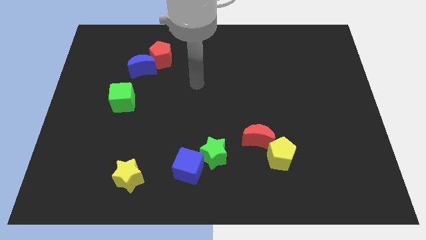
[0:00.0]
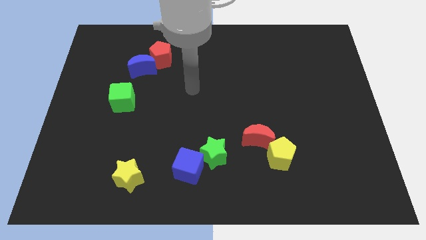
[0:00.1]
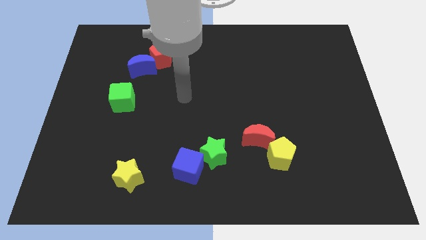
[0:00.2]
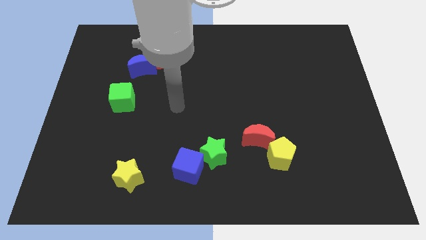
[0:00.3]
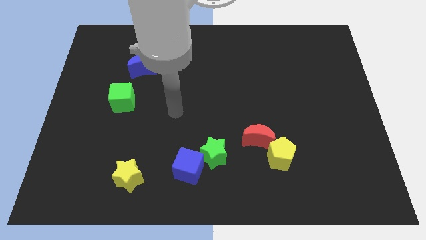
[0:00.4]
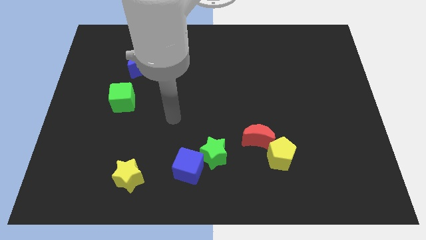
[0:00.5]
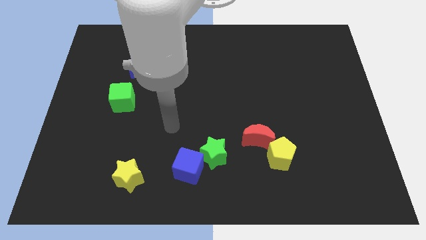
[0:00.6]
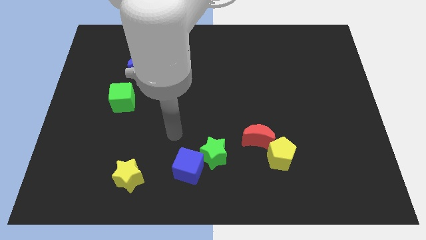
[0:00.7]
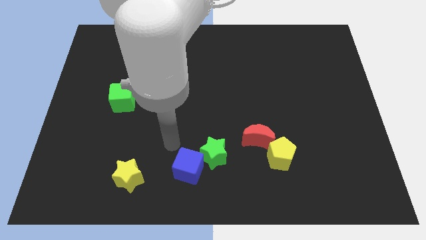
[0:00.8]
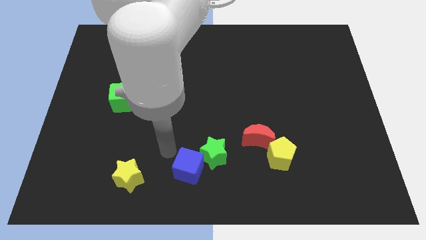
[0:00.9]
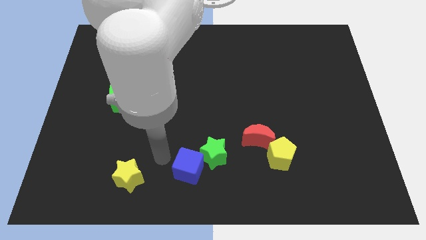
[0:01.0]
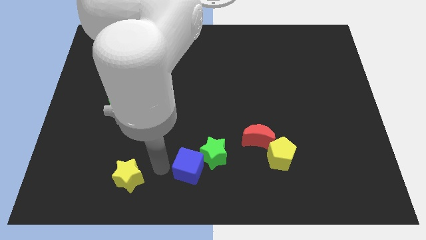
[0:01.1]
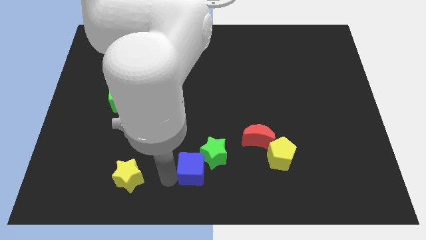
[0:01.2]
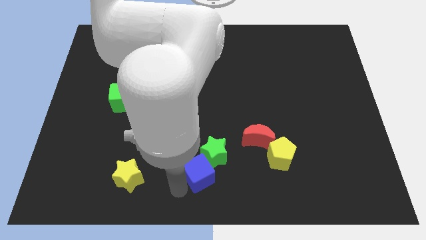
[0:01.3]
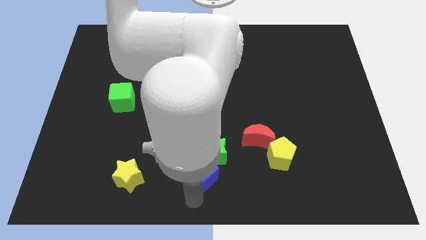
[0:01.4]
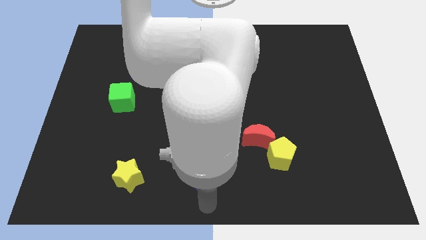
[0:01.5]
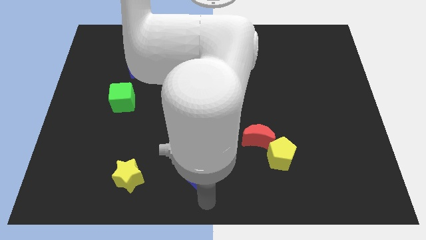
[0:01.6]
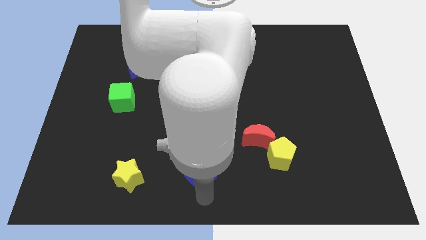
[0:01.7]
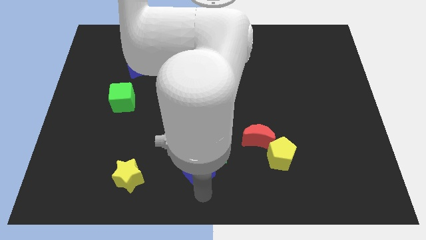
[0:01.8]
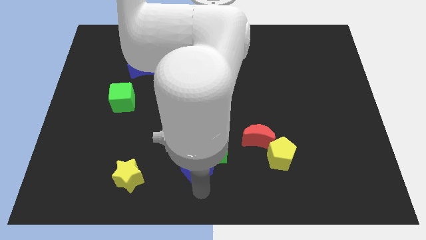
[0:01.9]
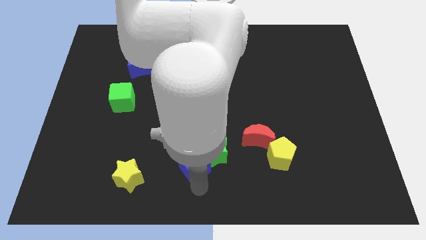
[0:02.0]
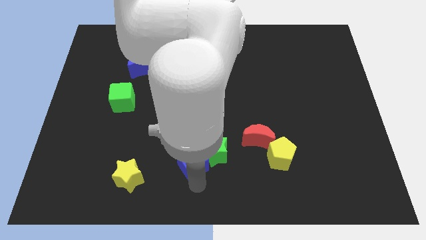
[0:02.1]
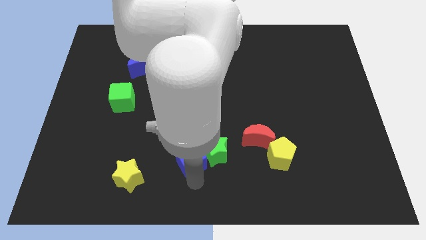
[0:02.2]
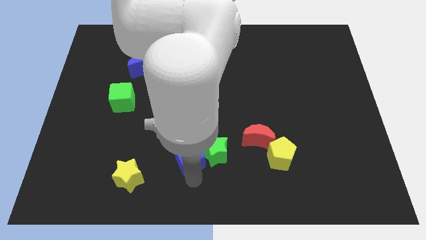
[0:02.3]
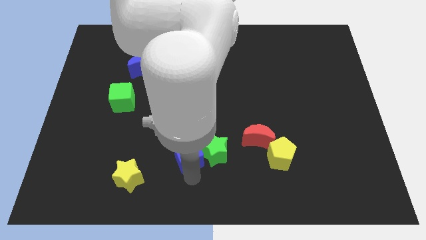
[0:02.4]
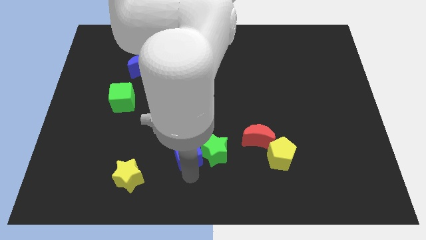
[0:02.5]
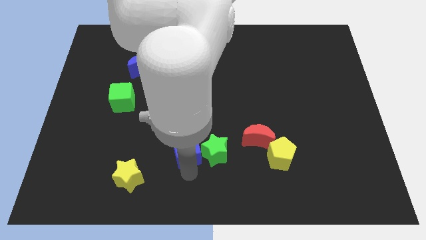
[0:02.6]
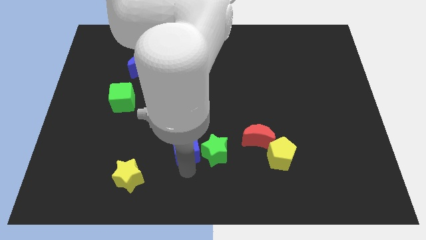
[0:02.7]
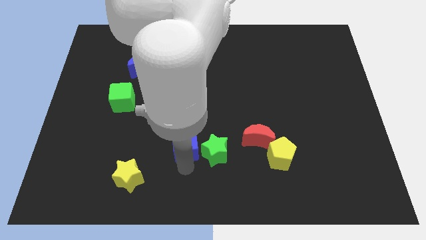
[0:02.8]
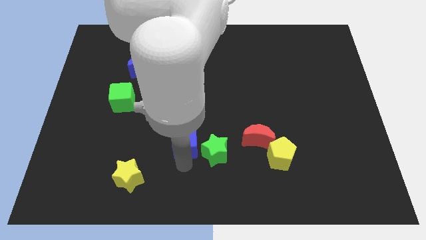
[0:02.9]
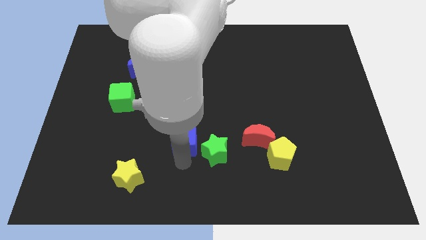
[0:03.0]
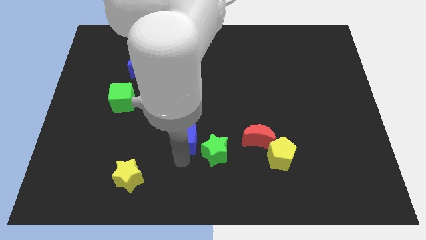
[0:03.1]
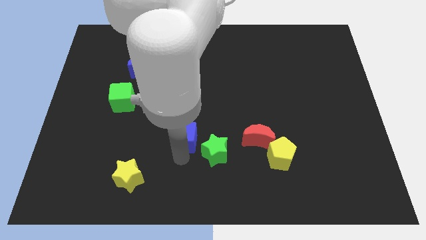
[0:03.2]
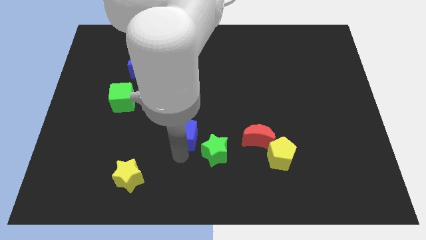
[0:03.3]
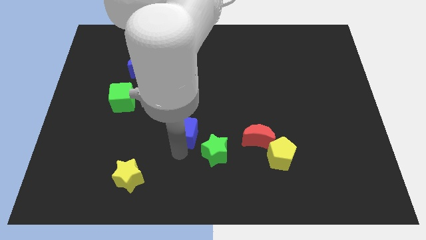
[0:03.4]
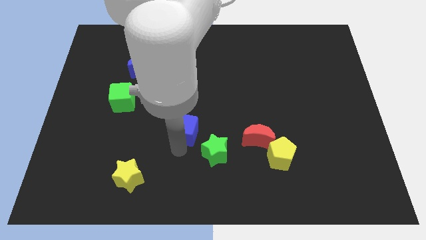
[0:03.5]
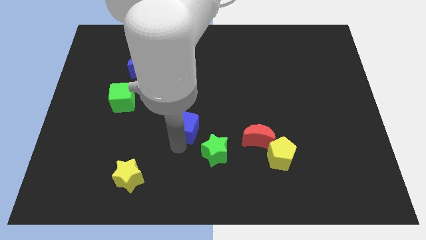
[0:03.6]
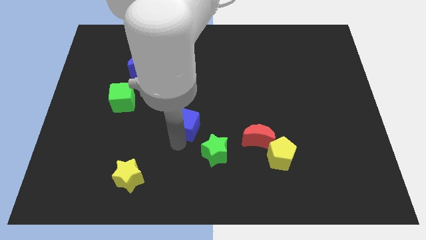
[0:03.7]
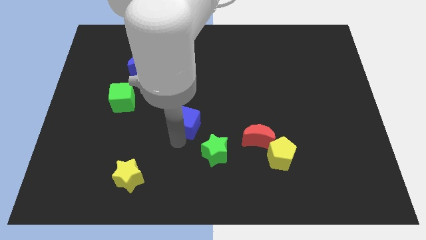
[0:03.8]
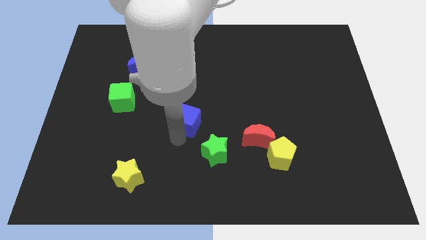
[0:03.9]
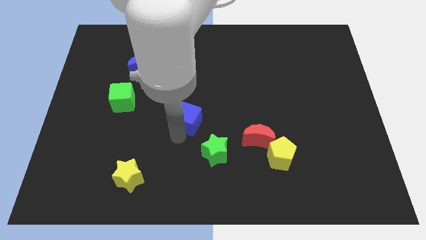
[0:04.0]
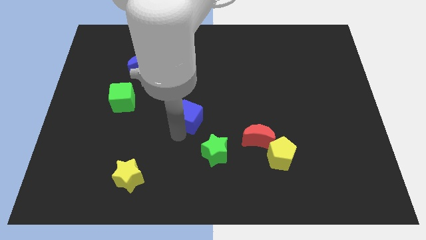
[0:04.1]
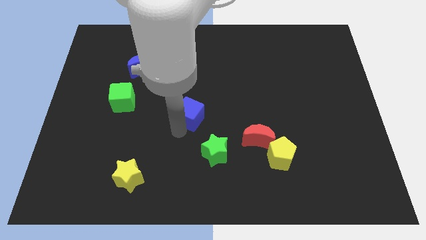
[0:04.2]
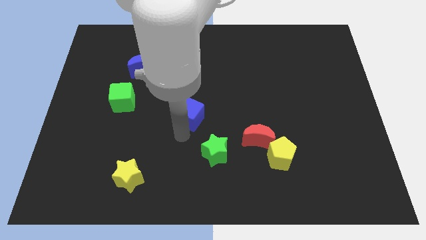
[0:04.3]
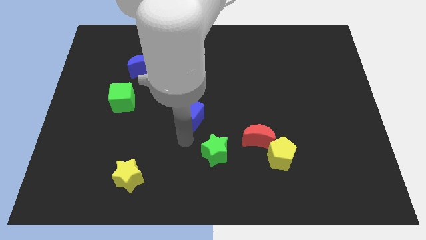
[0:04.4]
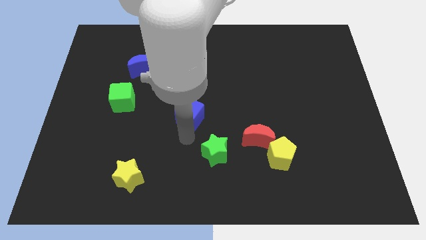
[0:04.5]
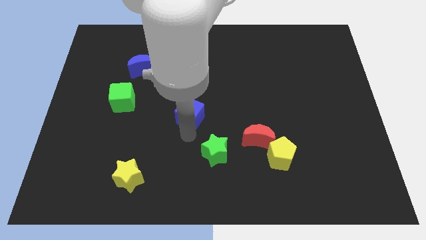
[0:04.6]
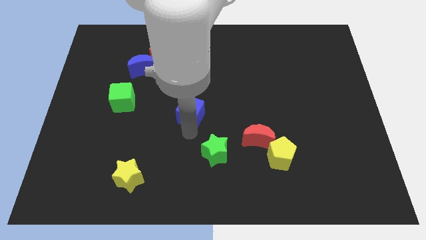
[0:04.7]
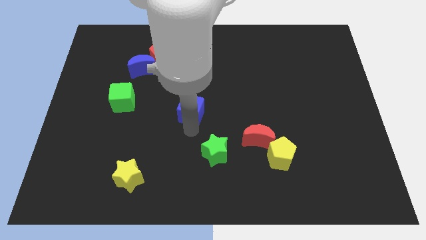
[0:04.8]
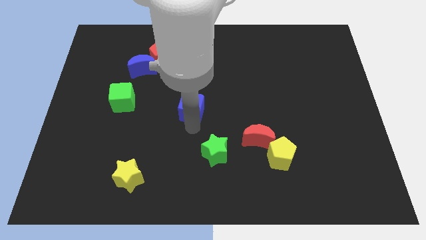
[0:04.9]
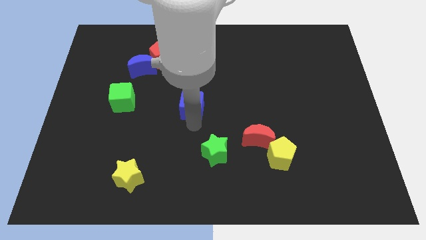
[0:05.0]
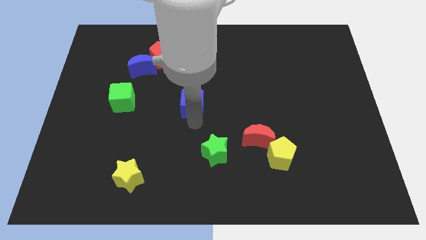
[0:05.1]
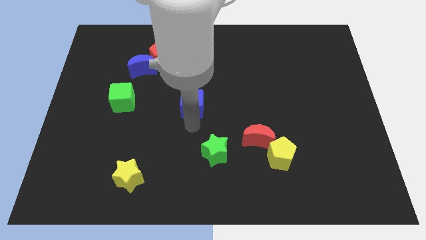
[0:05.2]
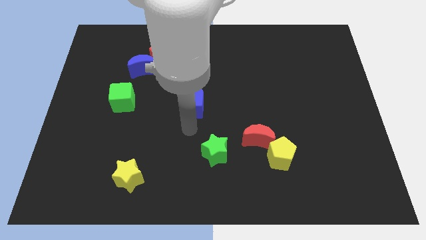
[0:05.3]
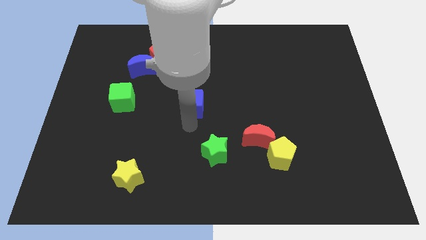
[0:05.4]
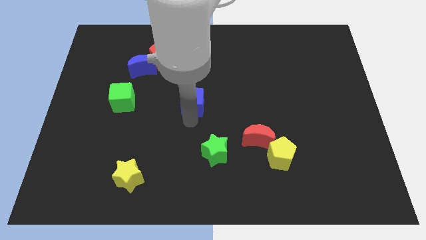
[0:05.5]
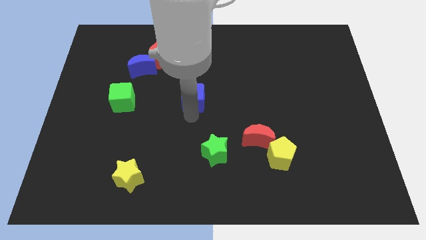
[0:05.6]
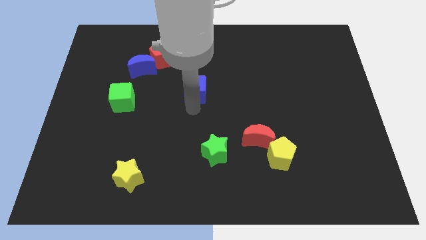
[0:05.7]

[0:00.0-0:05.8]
push the blue cube upwards

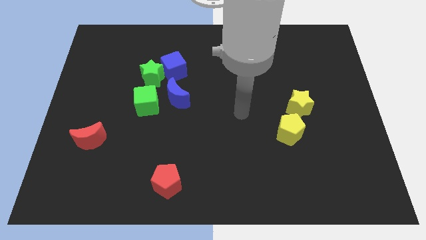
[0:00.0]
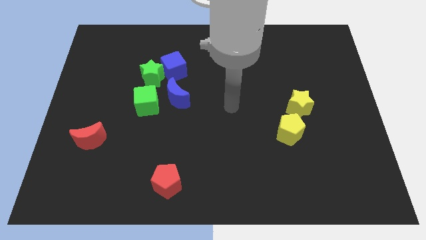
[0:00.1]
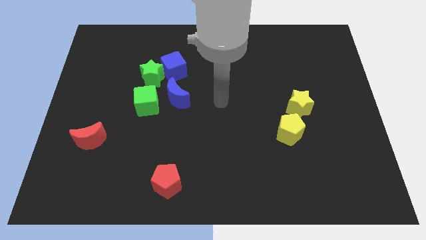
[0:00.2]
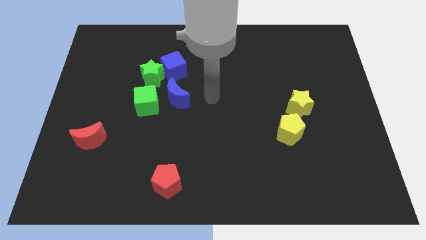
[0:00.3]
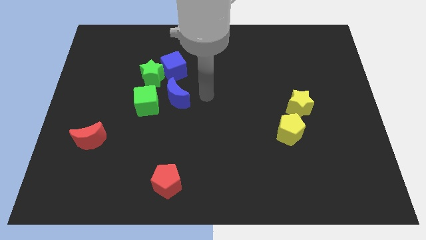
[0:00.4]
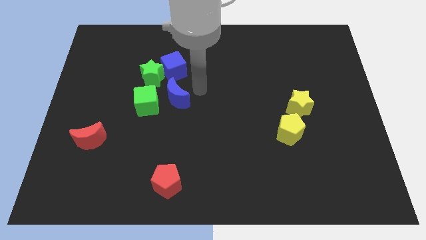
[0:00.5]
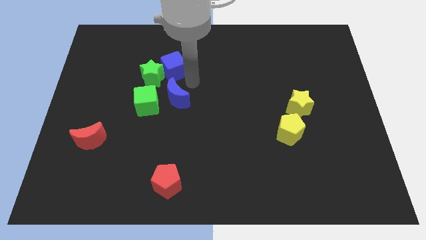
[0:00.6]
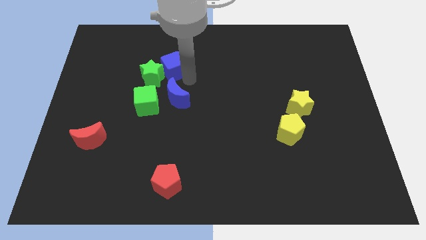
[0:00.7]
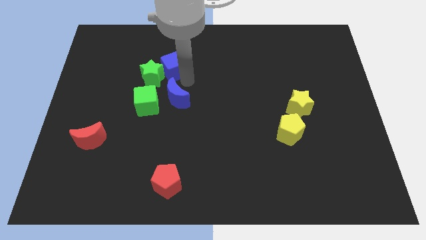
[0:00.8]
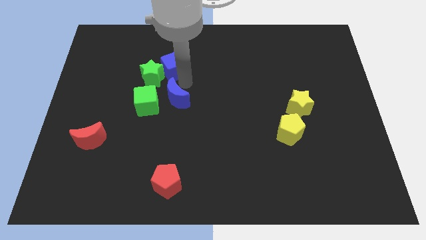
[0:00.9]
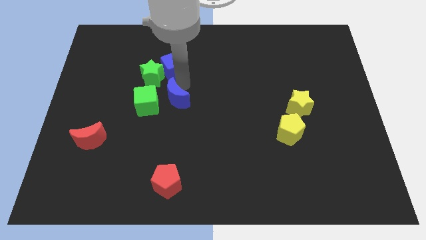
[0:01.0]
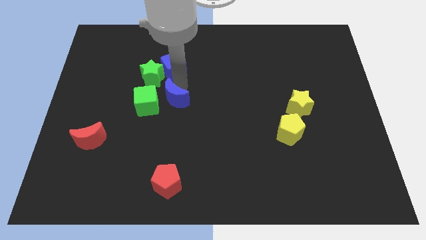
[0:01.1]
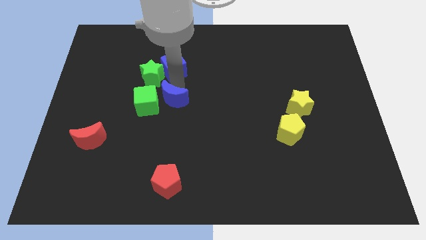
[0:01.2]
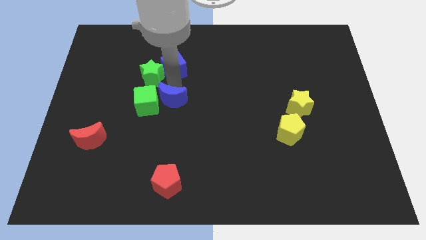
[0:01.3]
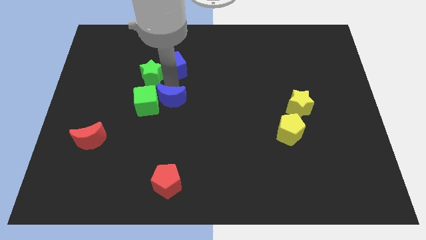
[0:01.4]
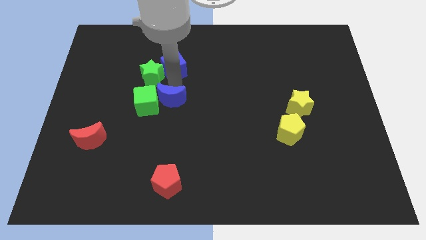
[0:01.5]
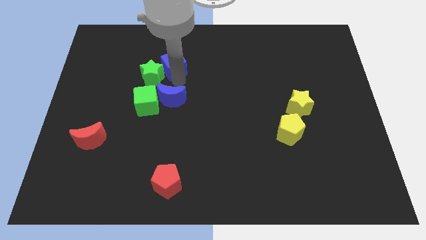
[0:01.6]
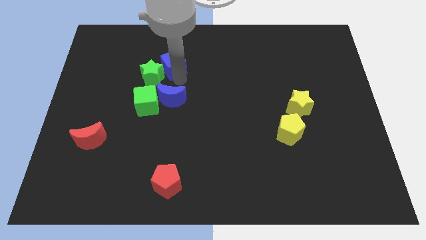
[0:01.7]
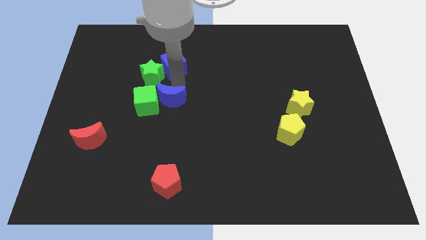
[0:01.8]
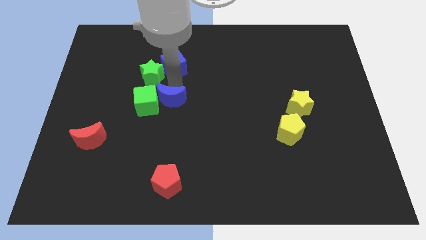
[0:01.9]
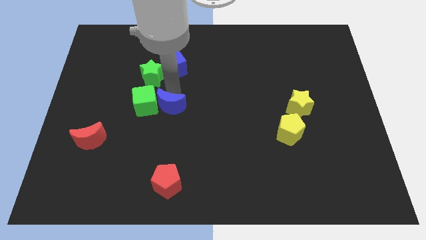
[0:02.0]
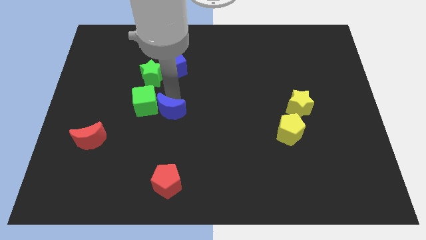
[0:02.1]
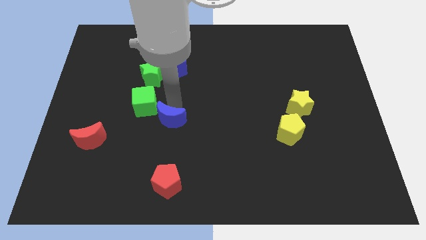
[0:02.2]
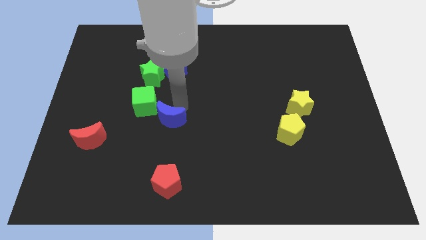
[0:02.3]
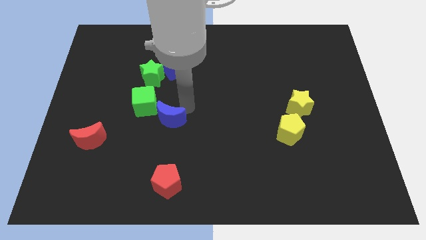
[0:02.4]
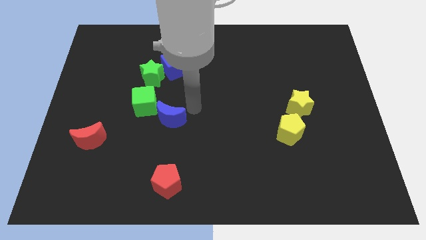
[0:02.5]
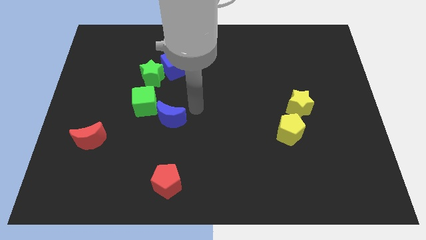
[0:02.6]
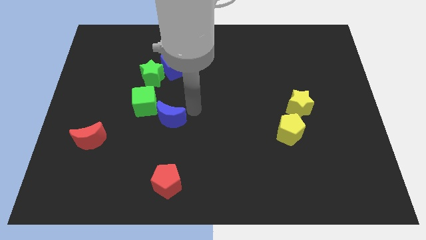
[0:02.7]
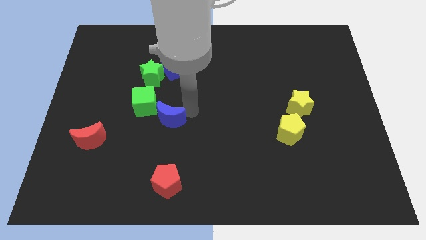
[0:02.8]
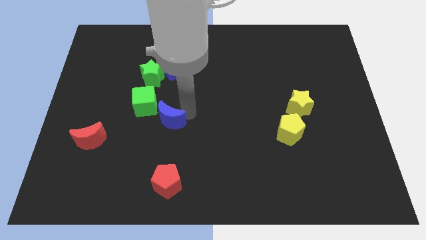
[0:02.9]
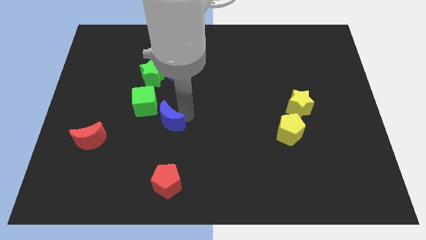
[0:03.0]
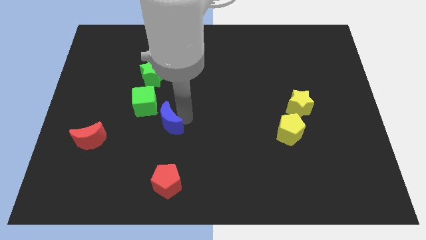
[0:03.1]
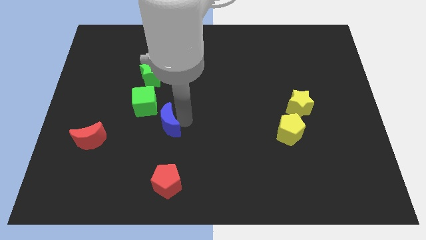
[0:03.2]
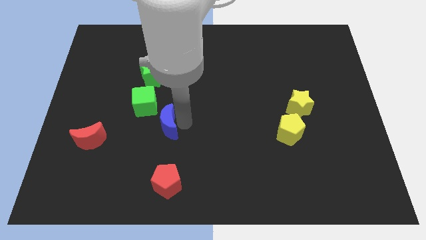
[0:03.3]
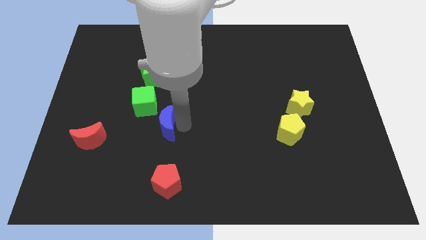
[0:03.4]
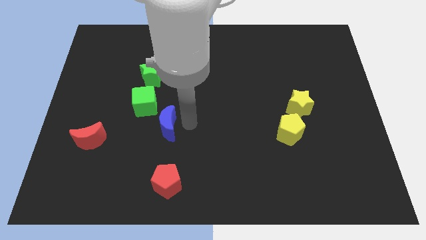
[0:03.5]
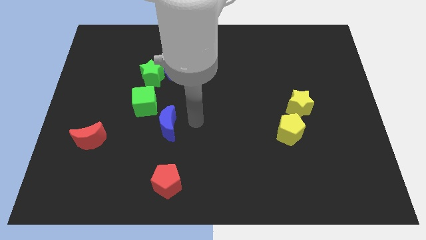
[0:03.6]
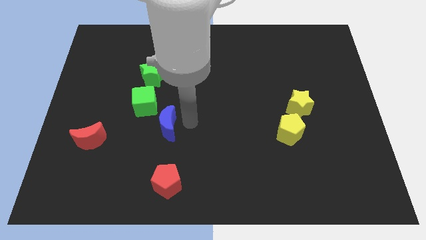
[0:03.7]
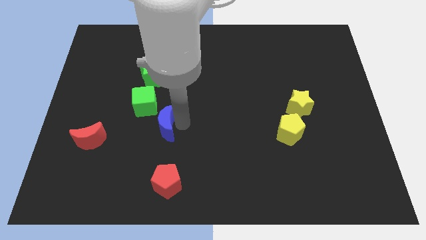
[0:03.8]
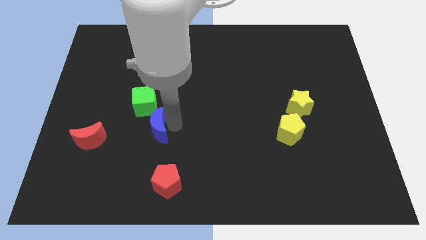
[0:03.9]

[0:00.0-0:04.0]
slightly push the blue moon down and to the left
